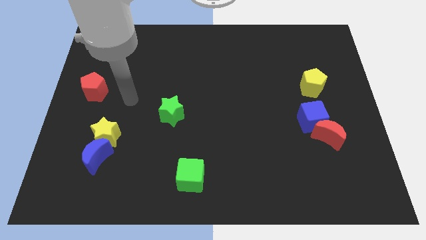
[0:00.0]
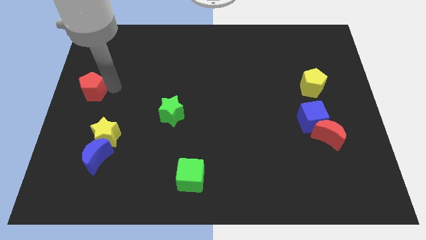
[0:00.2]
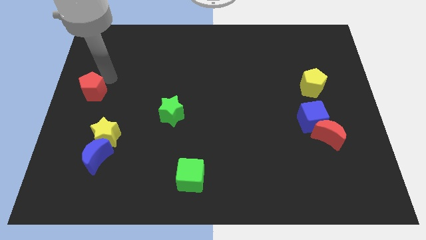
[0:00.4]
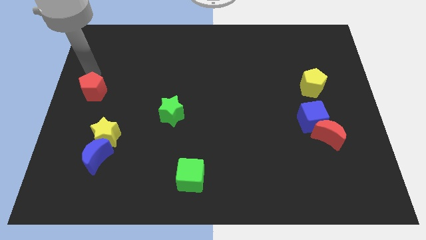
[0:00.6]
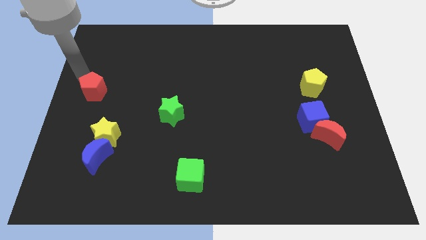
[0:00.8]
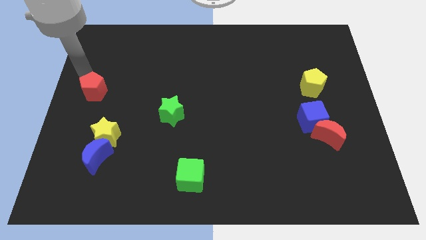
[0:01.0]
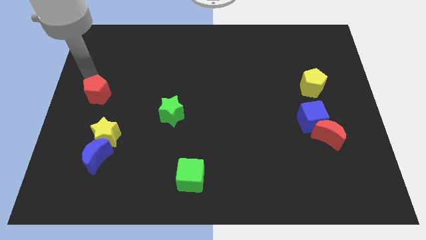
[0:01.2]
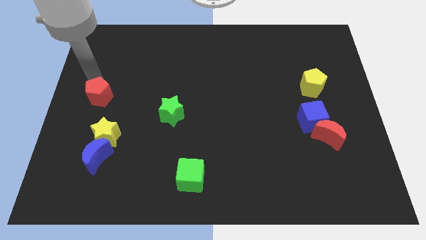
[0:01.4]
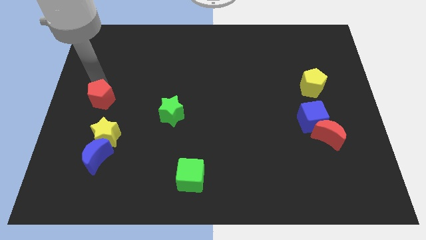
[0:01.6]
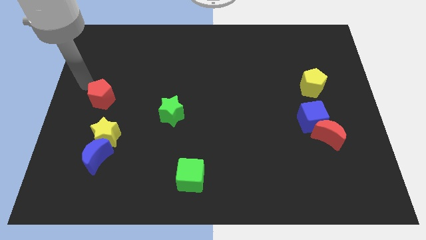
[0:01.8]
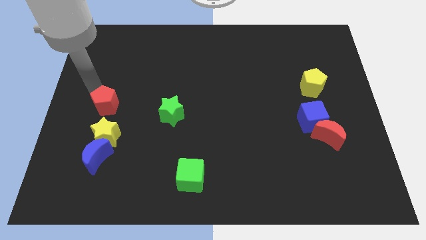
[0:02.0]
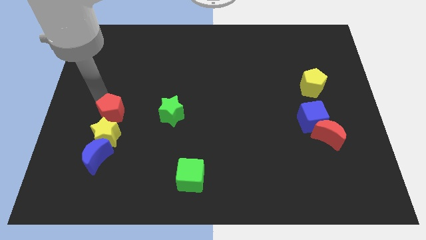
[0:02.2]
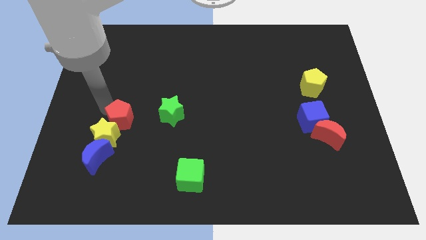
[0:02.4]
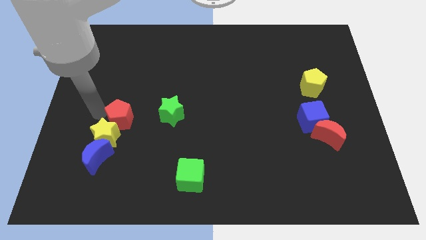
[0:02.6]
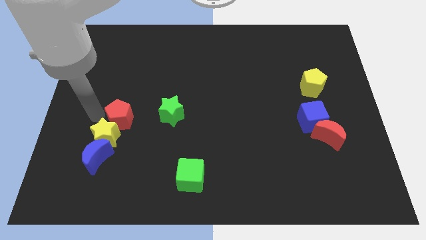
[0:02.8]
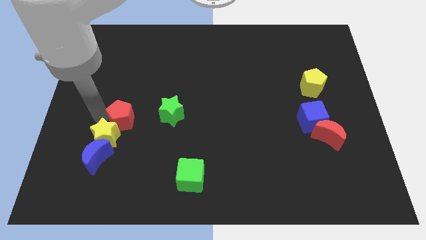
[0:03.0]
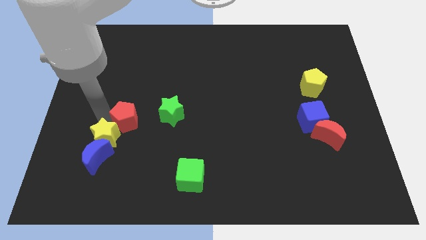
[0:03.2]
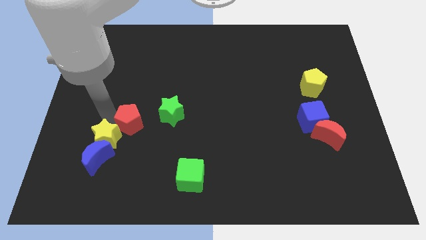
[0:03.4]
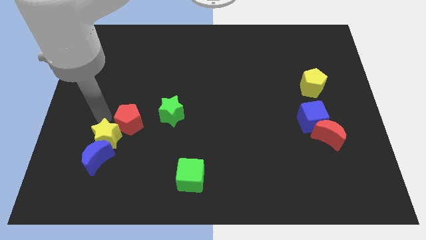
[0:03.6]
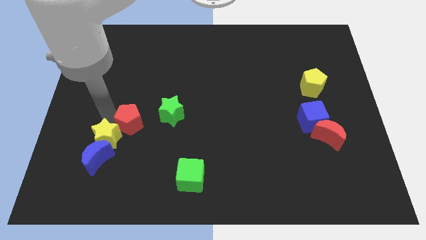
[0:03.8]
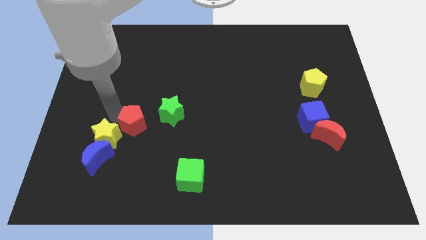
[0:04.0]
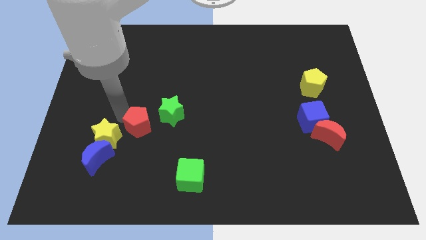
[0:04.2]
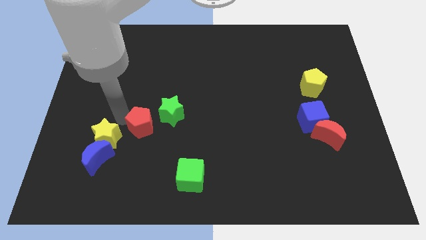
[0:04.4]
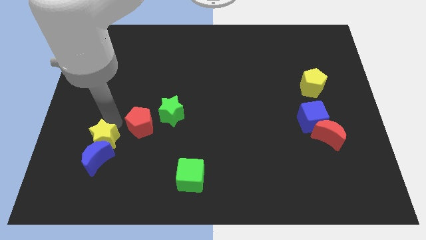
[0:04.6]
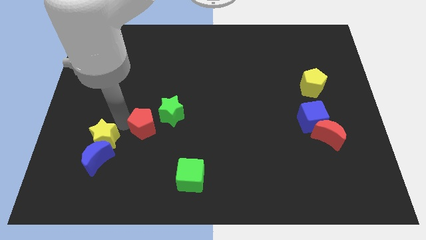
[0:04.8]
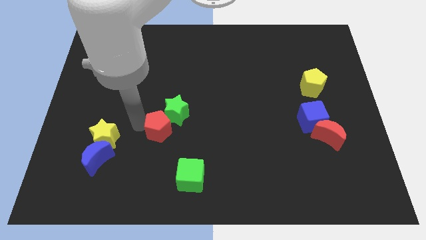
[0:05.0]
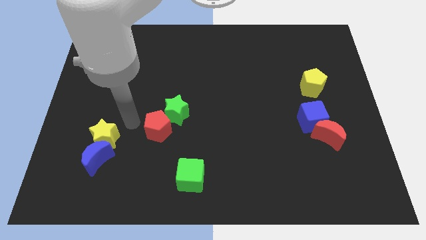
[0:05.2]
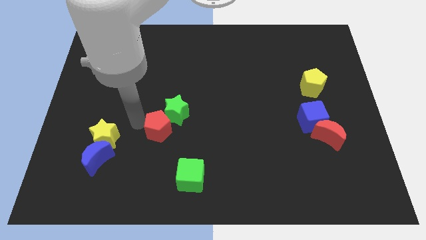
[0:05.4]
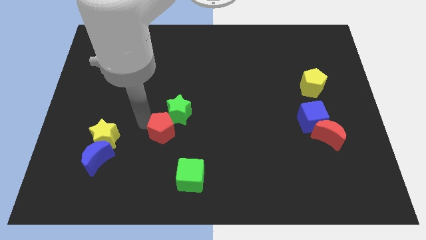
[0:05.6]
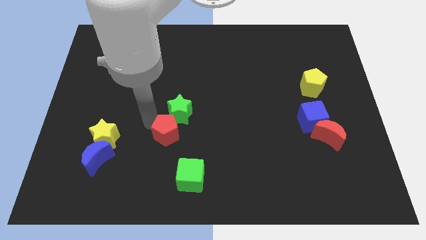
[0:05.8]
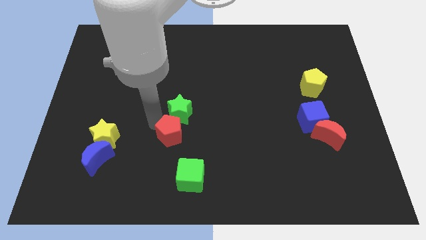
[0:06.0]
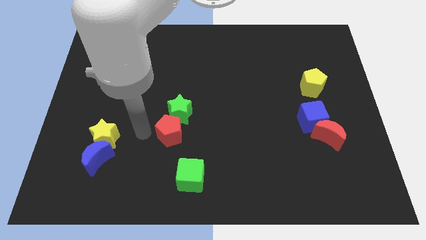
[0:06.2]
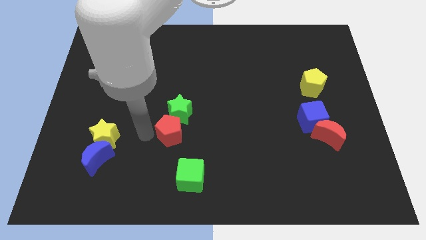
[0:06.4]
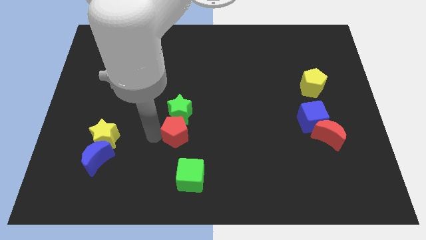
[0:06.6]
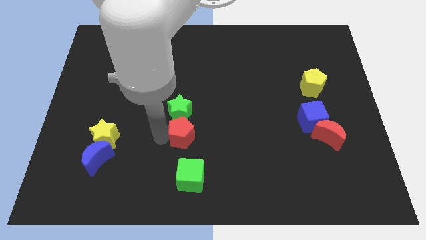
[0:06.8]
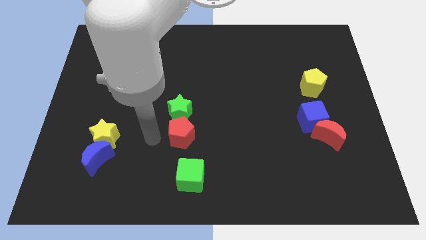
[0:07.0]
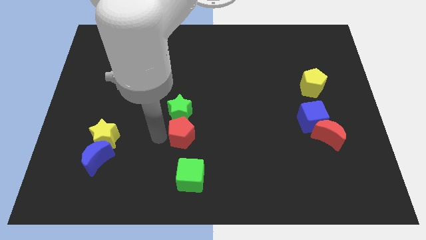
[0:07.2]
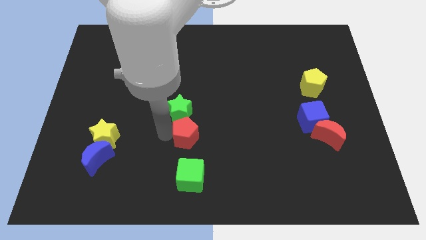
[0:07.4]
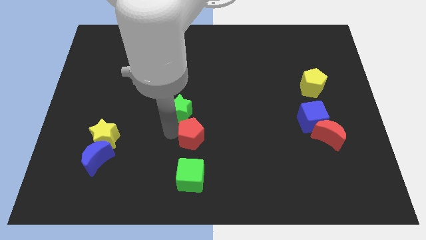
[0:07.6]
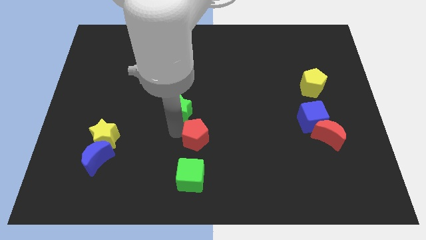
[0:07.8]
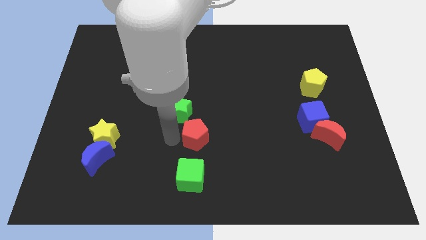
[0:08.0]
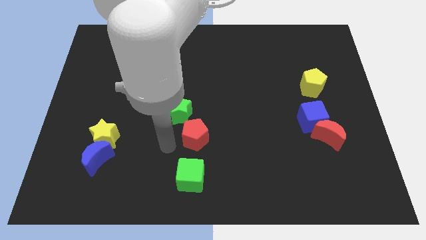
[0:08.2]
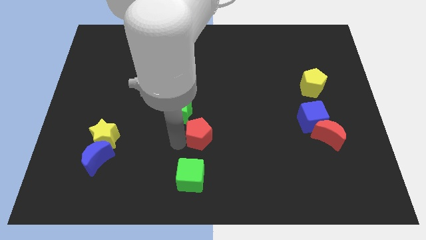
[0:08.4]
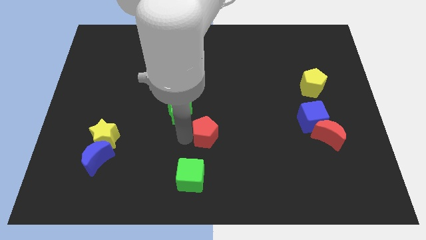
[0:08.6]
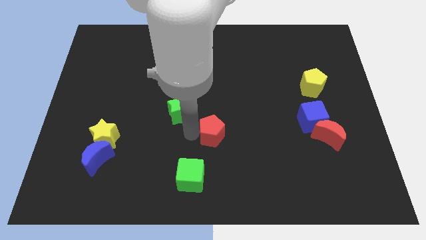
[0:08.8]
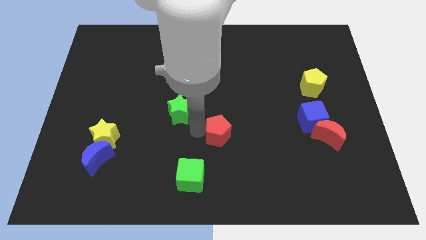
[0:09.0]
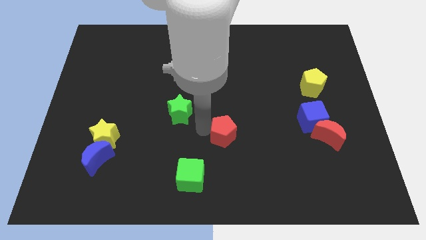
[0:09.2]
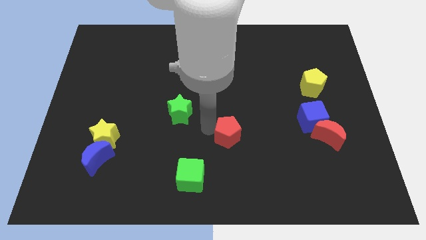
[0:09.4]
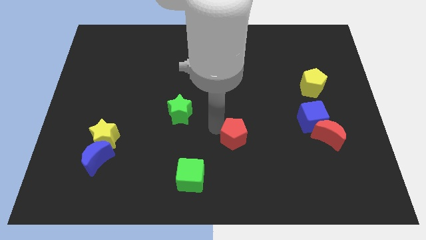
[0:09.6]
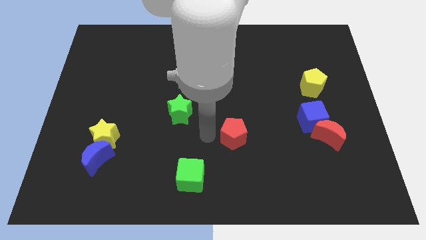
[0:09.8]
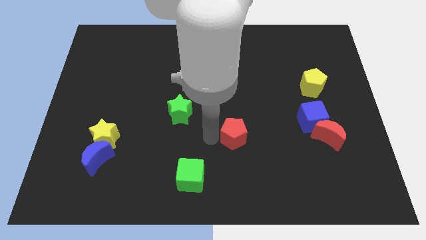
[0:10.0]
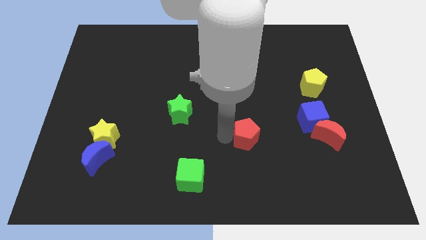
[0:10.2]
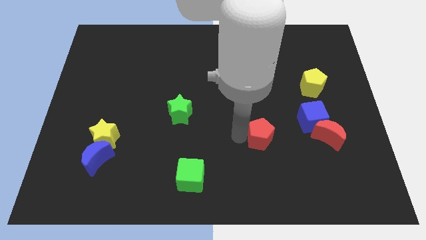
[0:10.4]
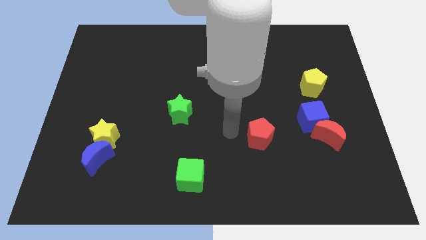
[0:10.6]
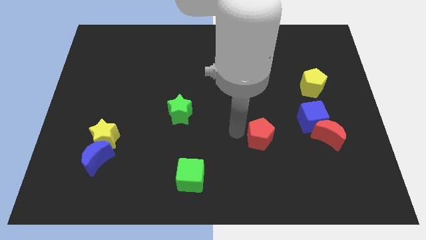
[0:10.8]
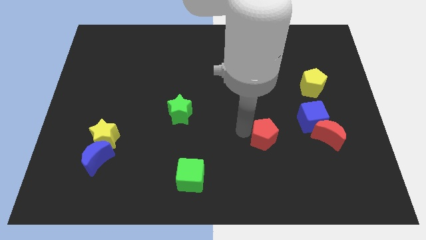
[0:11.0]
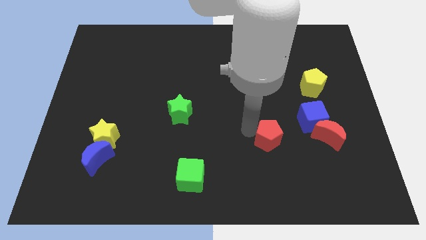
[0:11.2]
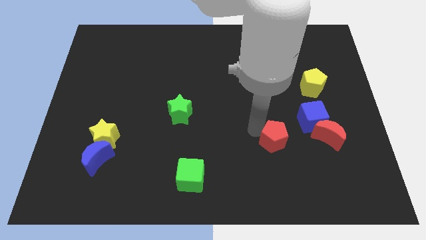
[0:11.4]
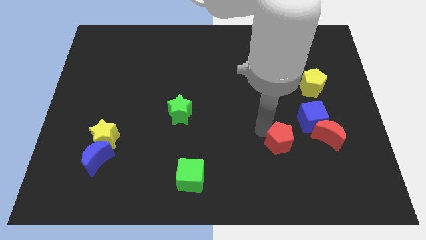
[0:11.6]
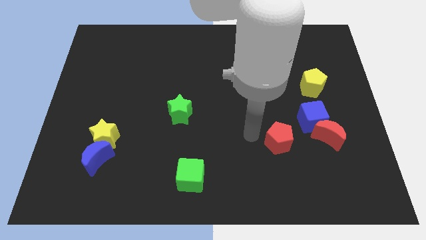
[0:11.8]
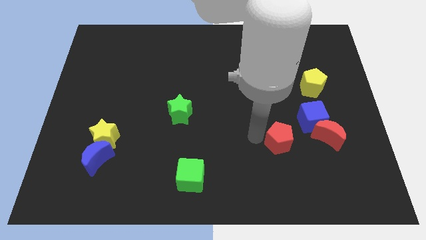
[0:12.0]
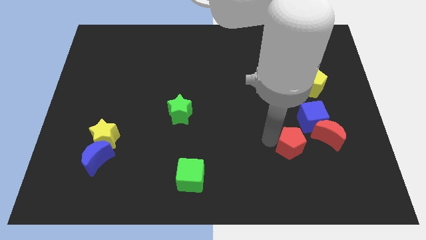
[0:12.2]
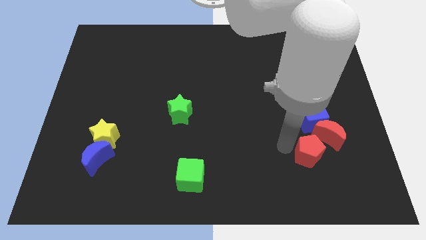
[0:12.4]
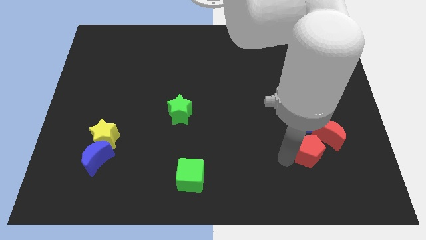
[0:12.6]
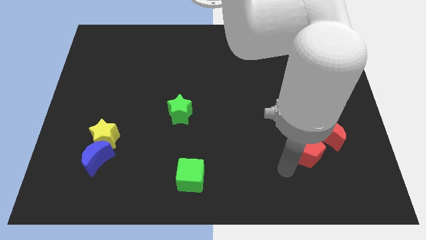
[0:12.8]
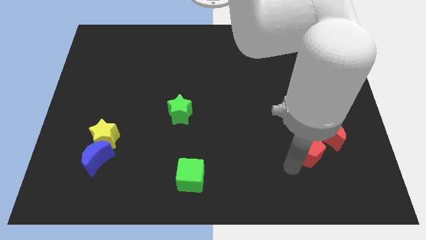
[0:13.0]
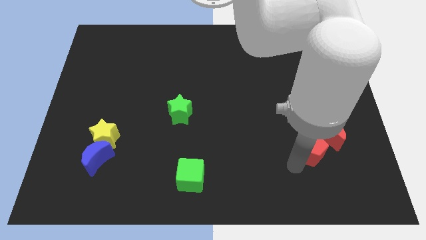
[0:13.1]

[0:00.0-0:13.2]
move the red pentagon close to the red moon

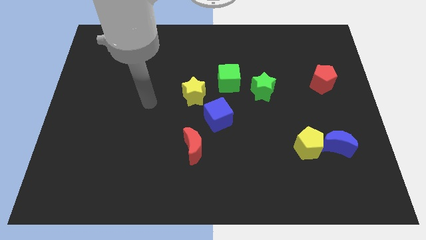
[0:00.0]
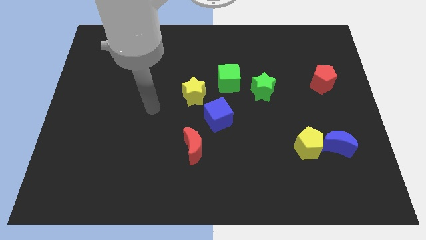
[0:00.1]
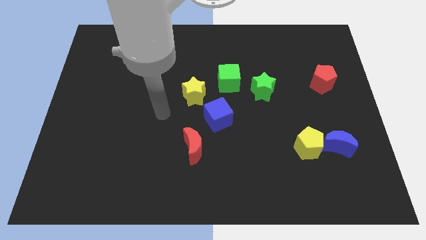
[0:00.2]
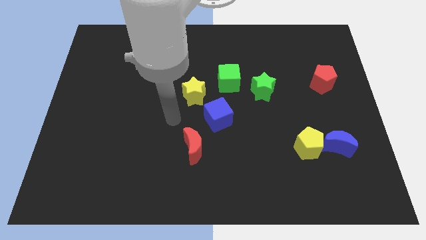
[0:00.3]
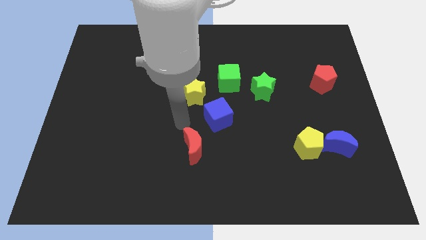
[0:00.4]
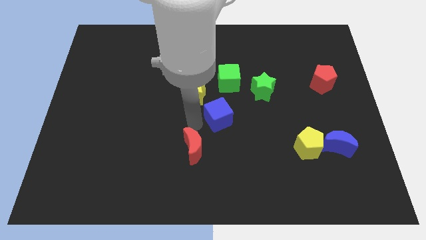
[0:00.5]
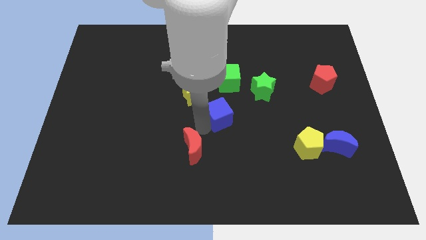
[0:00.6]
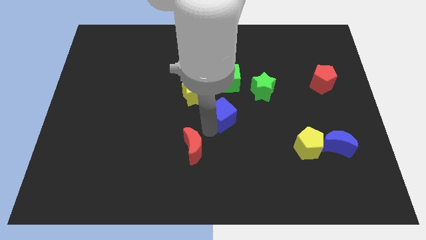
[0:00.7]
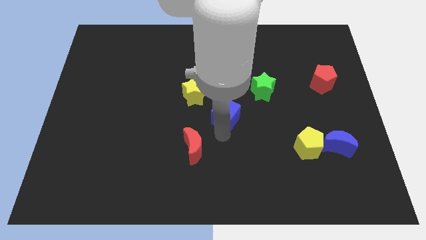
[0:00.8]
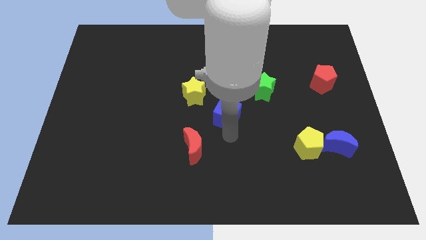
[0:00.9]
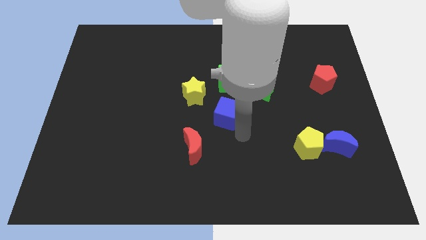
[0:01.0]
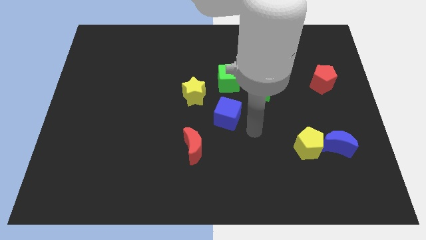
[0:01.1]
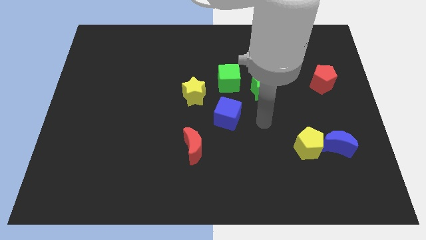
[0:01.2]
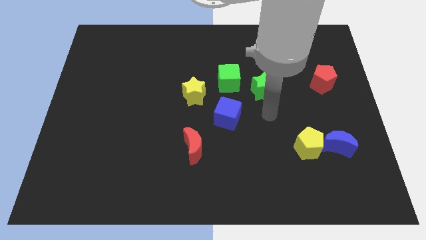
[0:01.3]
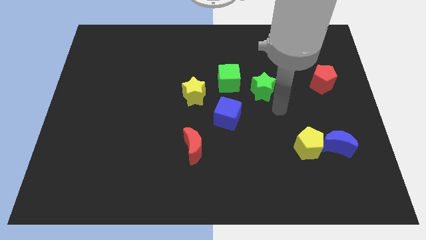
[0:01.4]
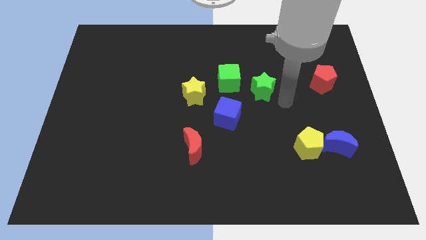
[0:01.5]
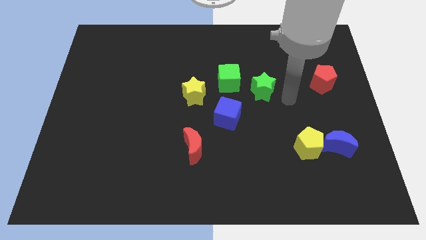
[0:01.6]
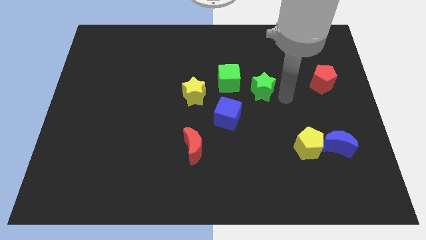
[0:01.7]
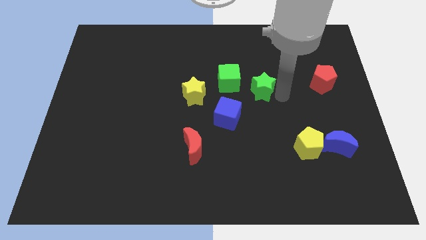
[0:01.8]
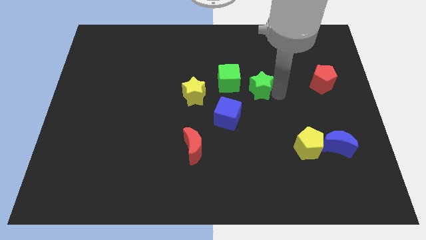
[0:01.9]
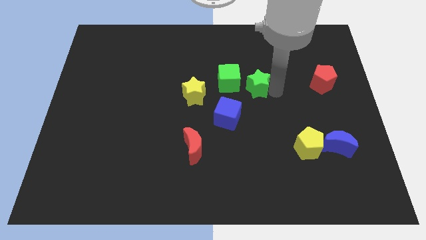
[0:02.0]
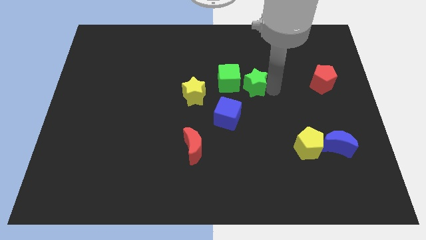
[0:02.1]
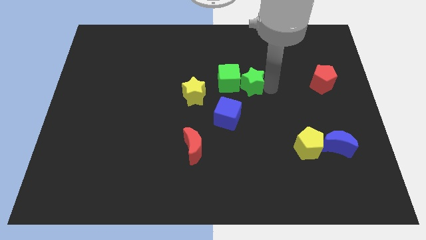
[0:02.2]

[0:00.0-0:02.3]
put the green star towards the green cube
